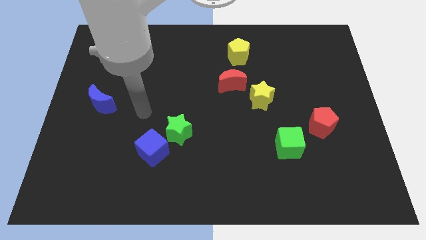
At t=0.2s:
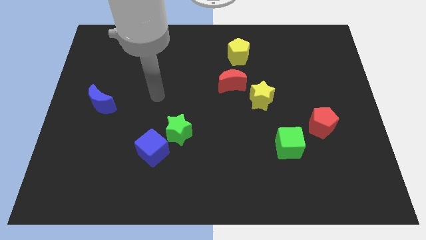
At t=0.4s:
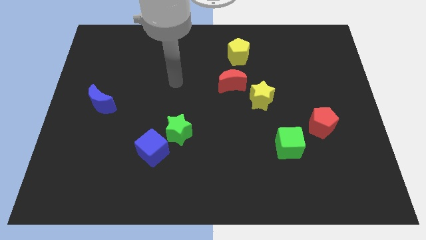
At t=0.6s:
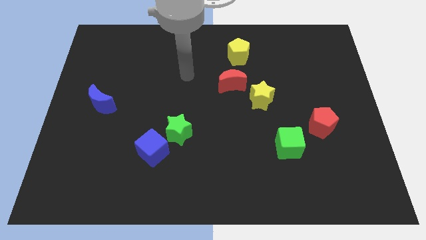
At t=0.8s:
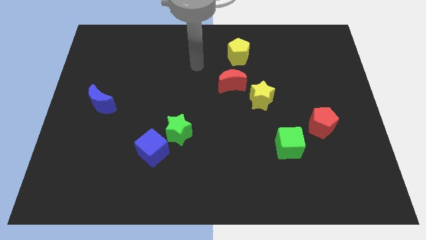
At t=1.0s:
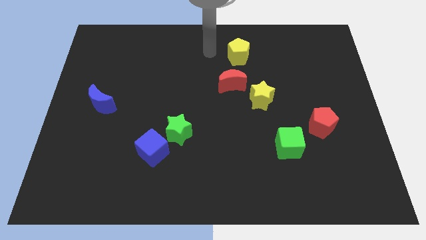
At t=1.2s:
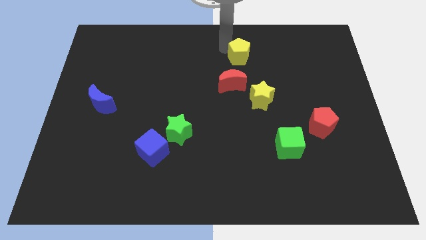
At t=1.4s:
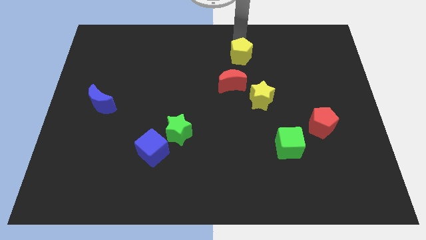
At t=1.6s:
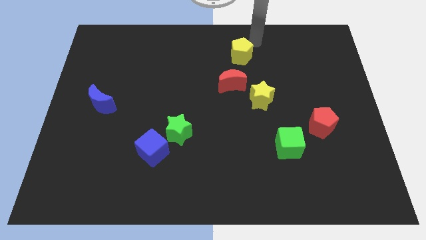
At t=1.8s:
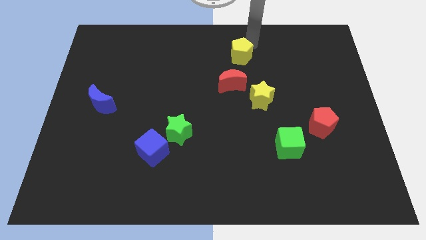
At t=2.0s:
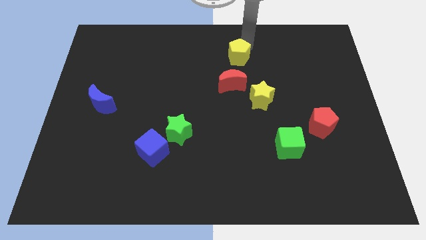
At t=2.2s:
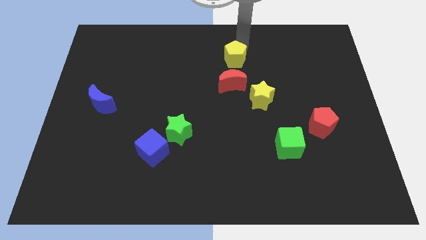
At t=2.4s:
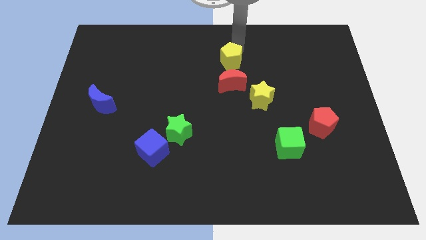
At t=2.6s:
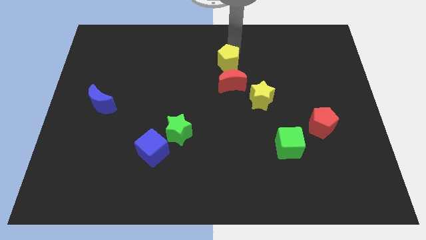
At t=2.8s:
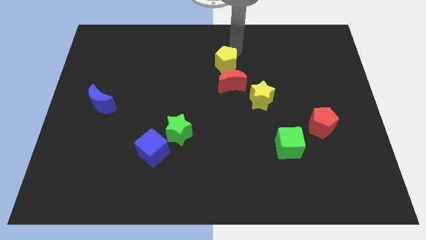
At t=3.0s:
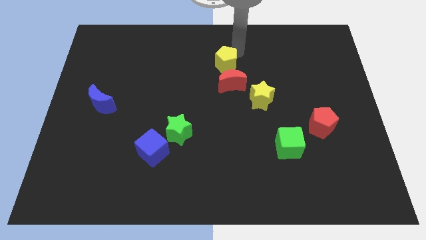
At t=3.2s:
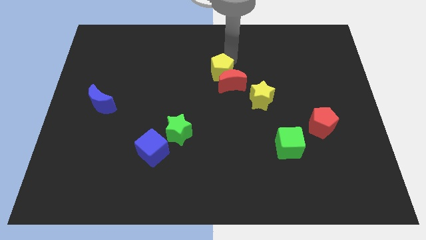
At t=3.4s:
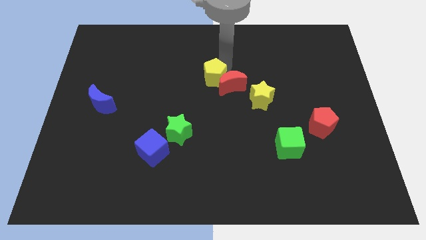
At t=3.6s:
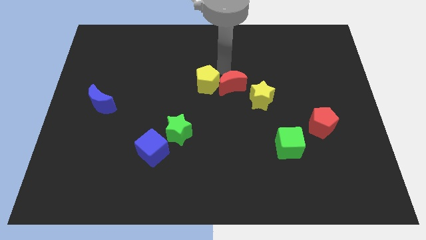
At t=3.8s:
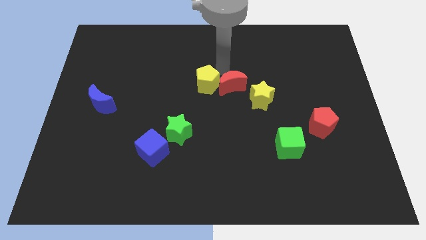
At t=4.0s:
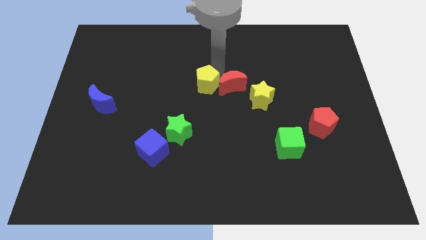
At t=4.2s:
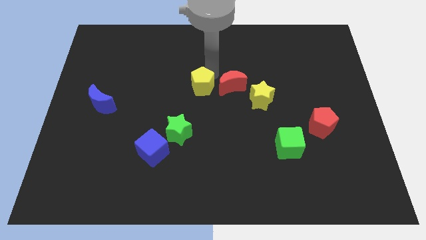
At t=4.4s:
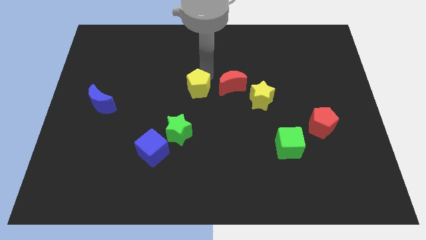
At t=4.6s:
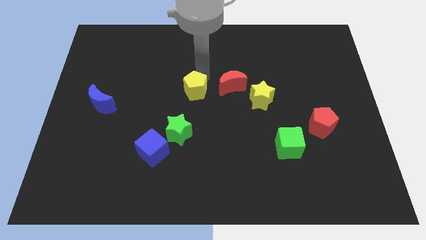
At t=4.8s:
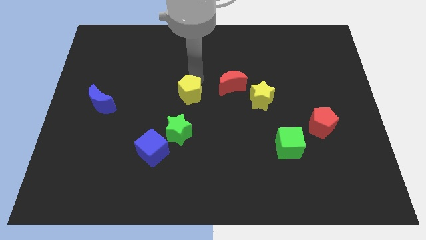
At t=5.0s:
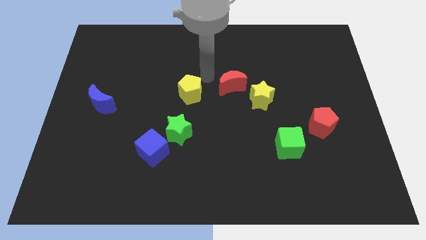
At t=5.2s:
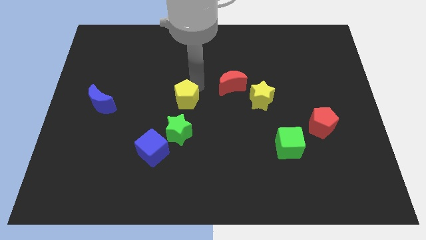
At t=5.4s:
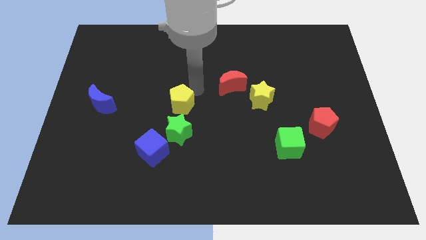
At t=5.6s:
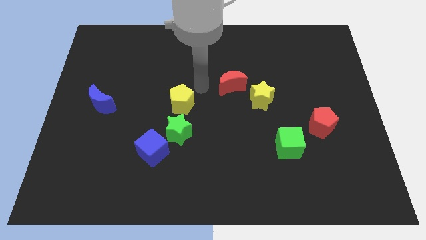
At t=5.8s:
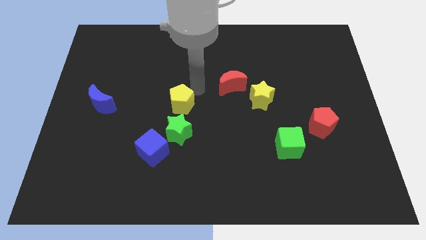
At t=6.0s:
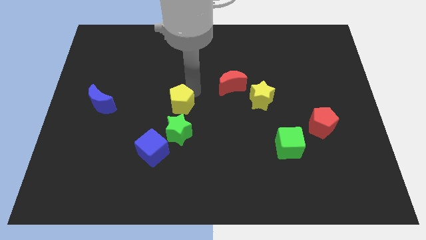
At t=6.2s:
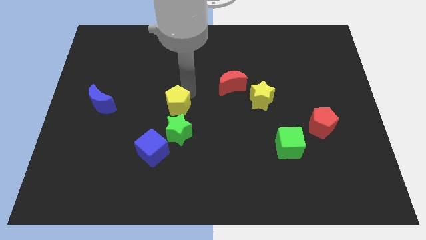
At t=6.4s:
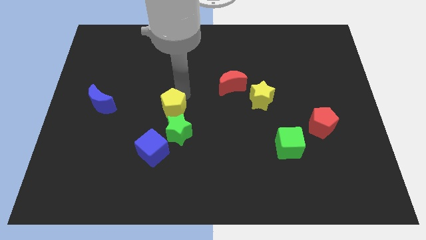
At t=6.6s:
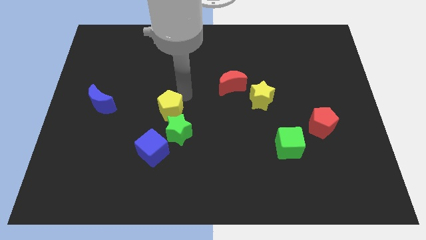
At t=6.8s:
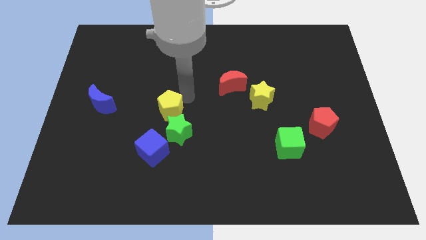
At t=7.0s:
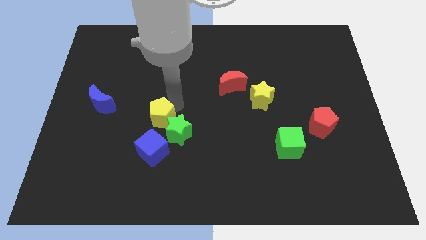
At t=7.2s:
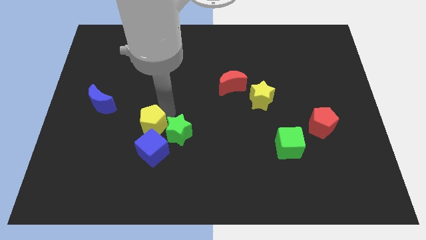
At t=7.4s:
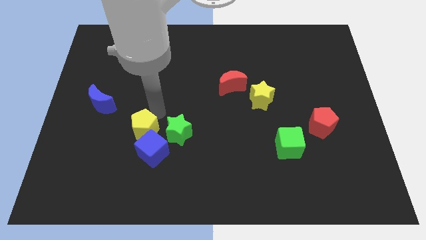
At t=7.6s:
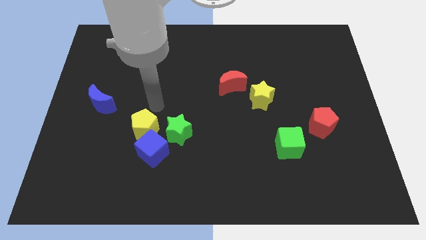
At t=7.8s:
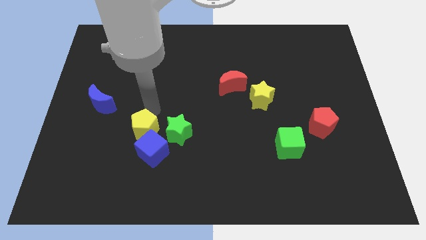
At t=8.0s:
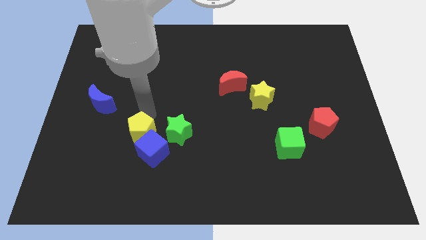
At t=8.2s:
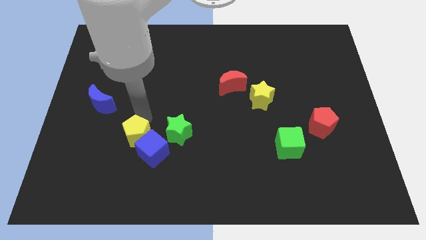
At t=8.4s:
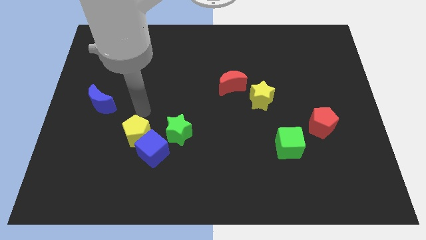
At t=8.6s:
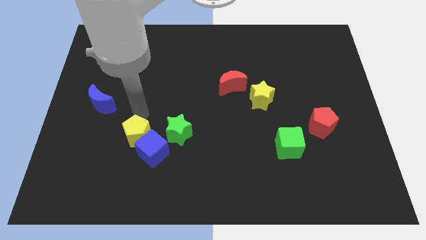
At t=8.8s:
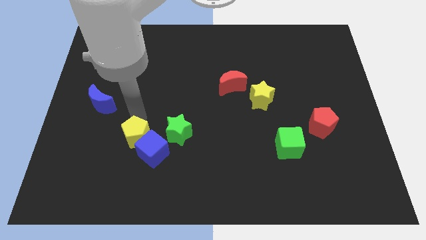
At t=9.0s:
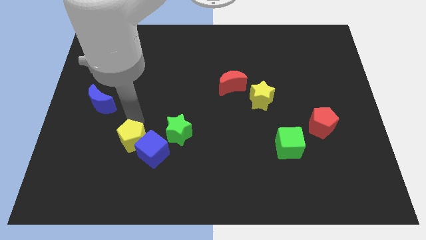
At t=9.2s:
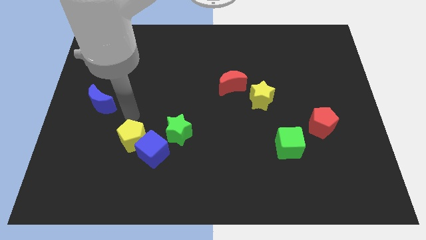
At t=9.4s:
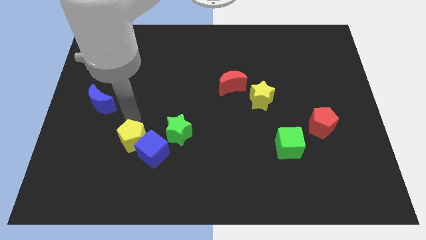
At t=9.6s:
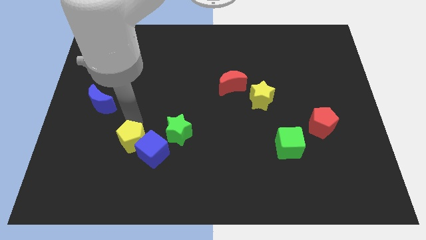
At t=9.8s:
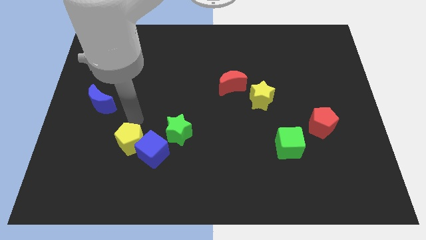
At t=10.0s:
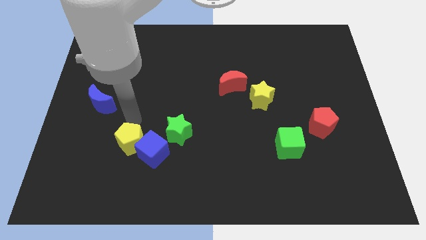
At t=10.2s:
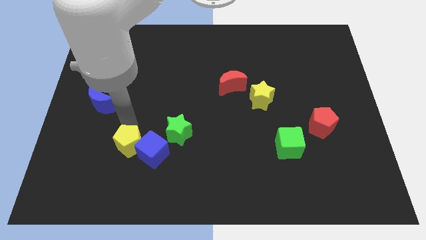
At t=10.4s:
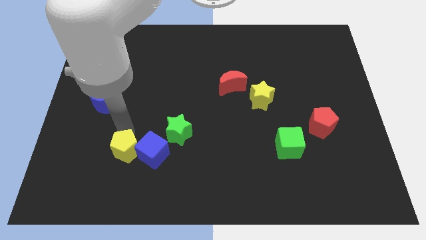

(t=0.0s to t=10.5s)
slide the yellow pentagon to the bottom left side of the blue cube

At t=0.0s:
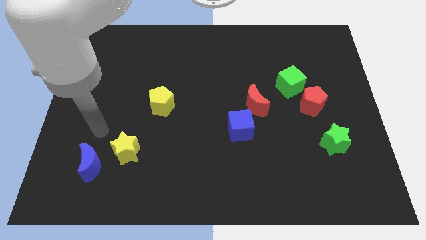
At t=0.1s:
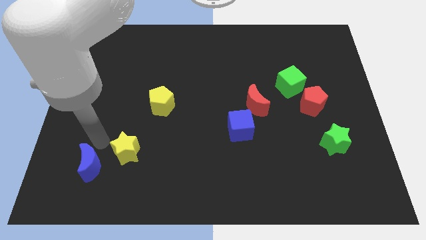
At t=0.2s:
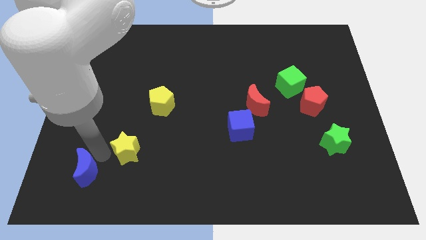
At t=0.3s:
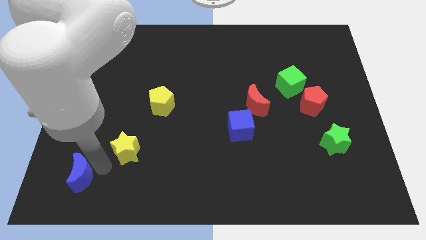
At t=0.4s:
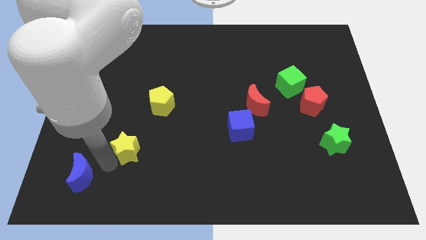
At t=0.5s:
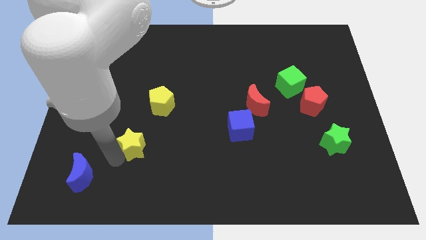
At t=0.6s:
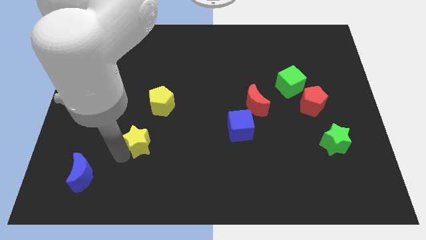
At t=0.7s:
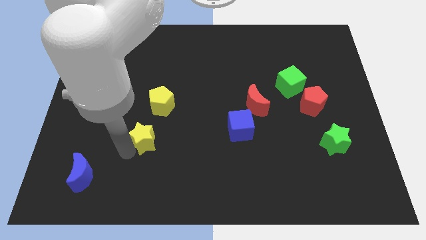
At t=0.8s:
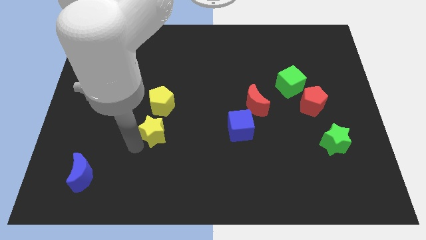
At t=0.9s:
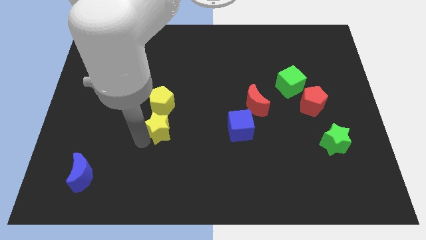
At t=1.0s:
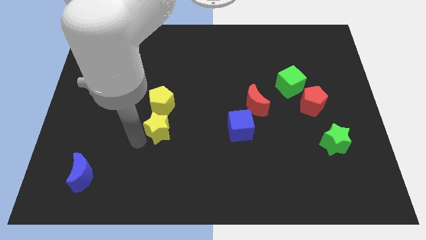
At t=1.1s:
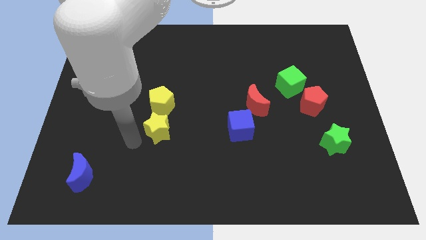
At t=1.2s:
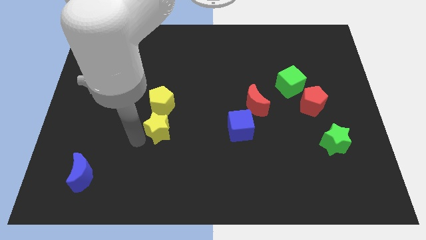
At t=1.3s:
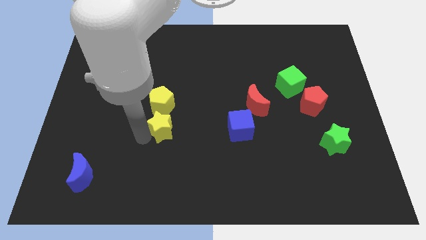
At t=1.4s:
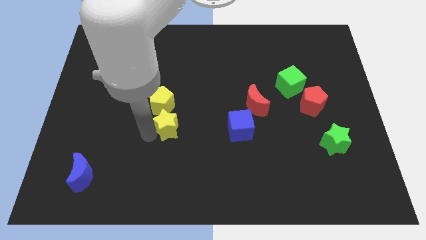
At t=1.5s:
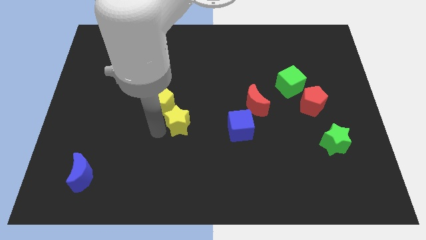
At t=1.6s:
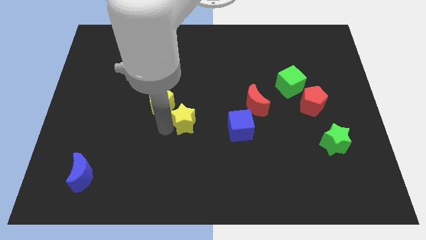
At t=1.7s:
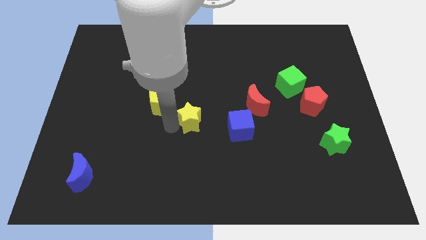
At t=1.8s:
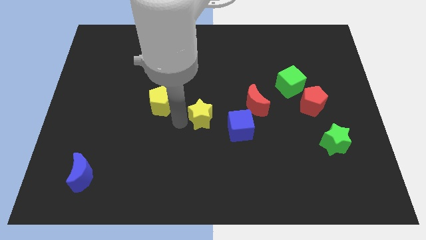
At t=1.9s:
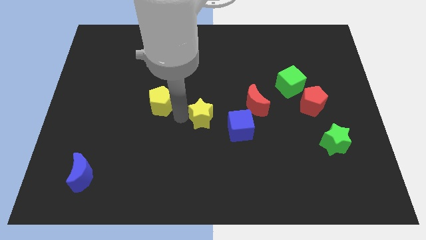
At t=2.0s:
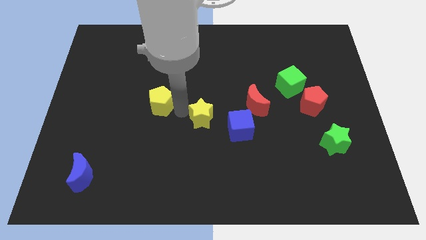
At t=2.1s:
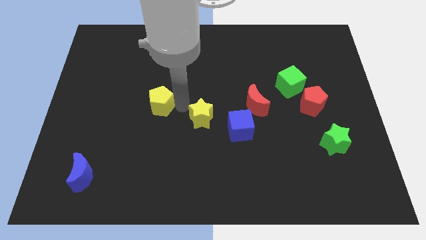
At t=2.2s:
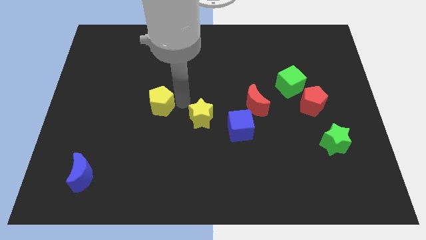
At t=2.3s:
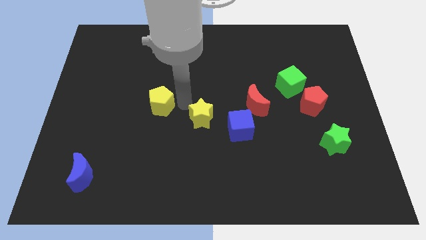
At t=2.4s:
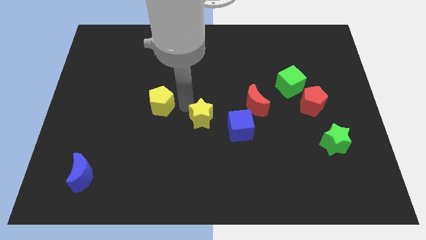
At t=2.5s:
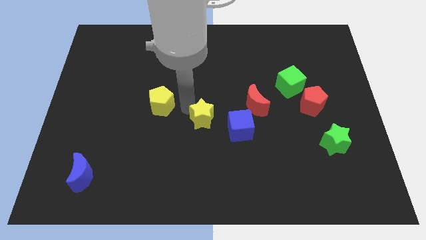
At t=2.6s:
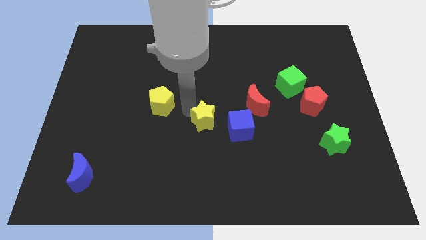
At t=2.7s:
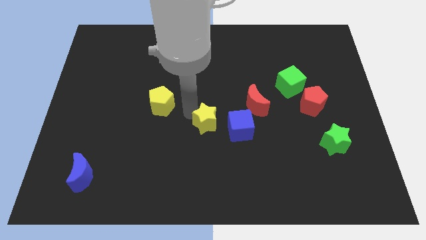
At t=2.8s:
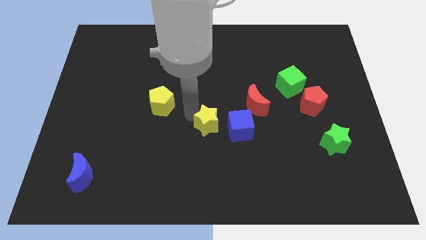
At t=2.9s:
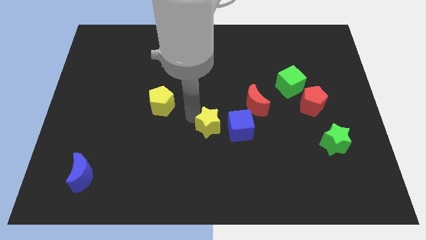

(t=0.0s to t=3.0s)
slide the yellow star to the bottom left of the red moon
